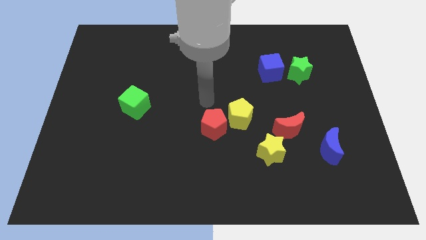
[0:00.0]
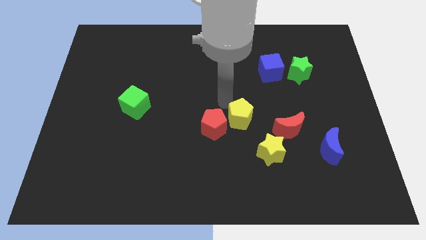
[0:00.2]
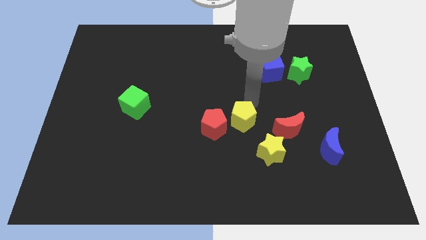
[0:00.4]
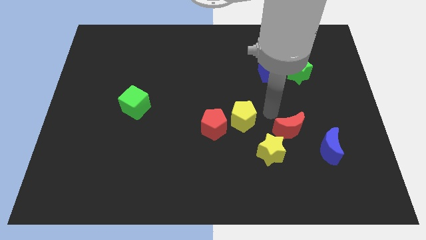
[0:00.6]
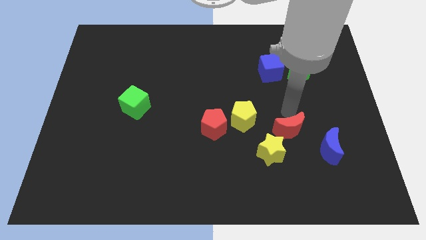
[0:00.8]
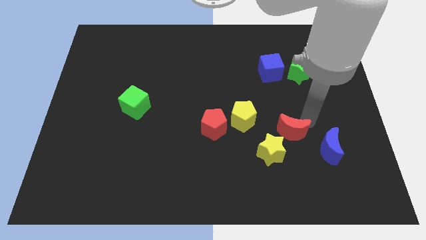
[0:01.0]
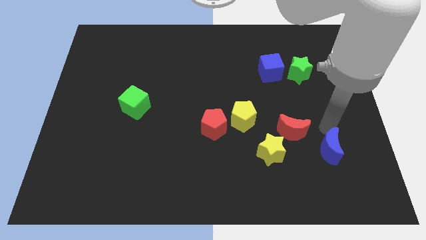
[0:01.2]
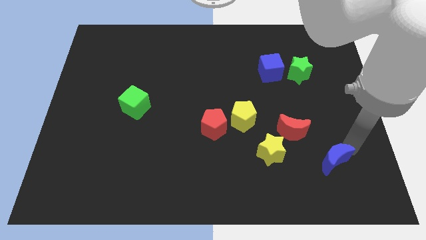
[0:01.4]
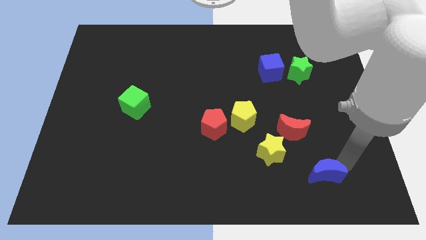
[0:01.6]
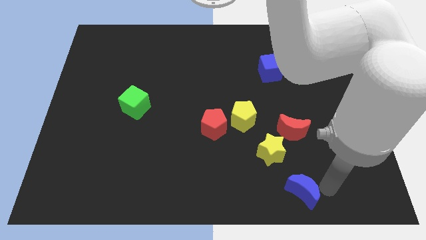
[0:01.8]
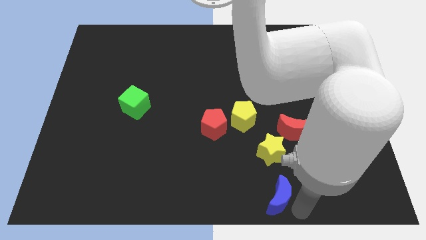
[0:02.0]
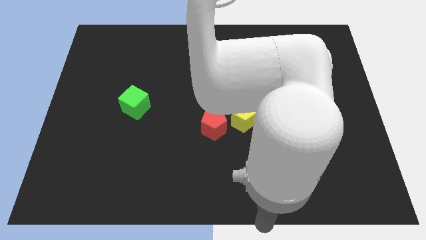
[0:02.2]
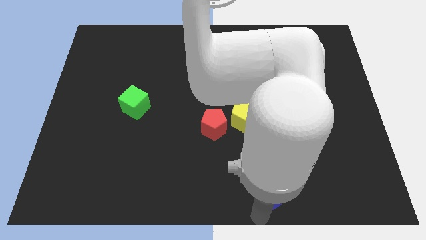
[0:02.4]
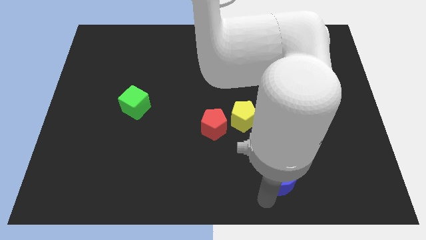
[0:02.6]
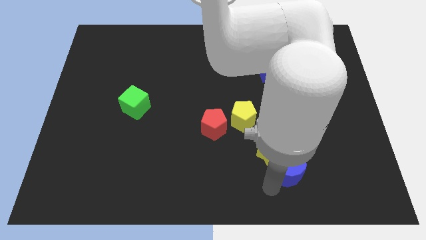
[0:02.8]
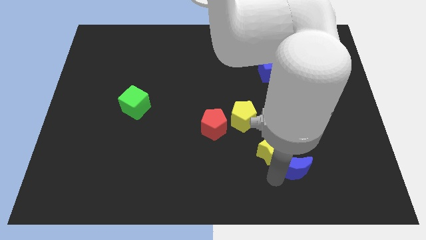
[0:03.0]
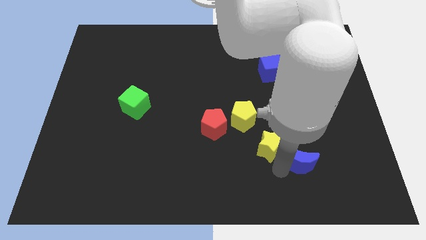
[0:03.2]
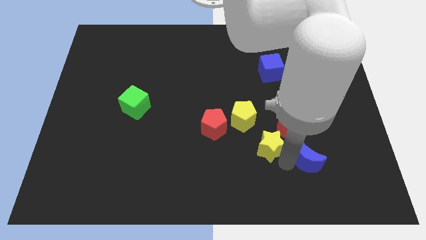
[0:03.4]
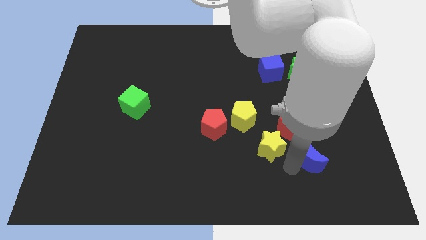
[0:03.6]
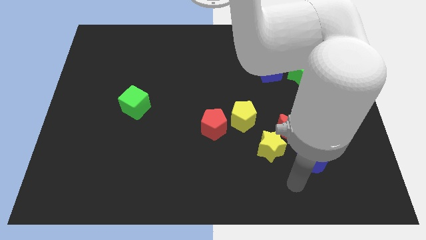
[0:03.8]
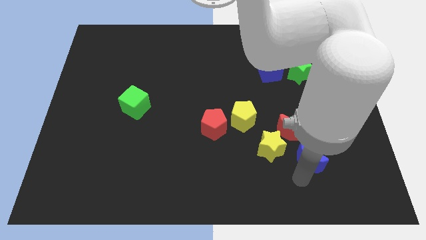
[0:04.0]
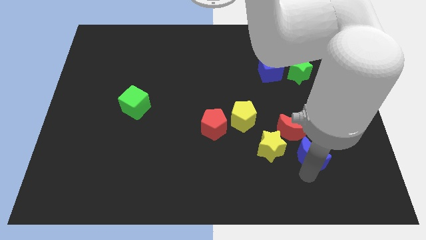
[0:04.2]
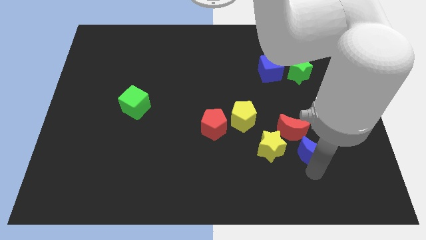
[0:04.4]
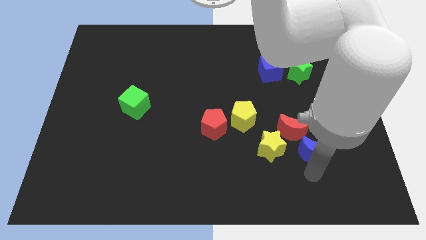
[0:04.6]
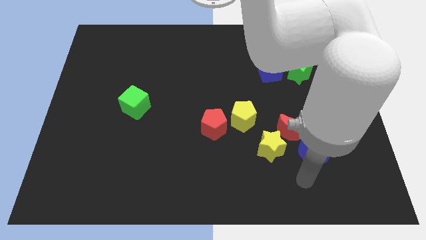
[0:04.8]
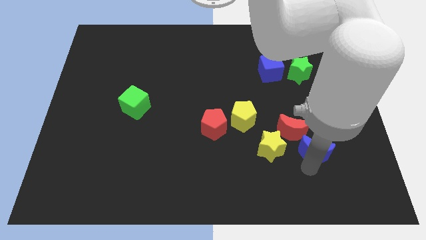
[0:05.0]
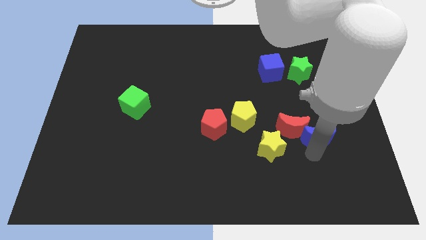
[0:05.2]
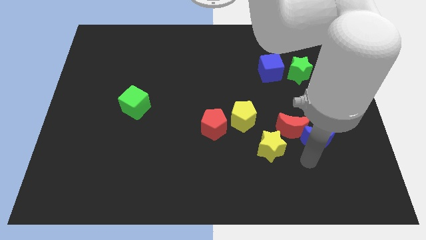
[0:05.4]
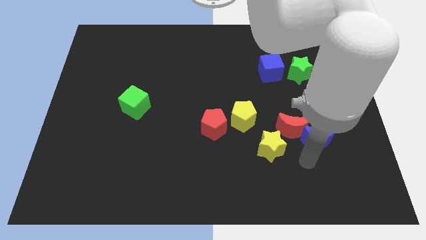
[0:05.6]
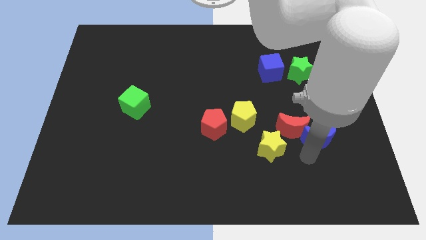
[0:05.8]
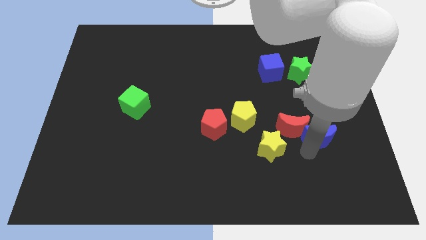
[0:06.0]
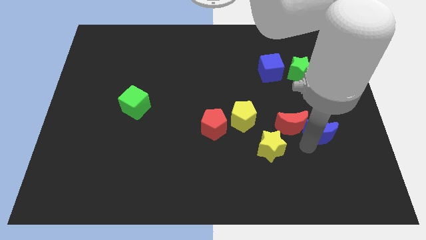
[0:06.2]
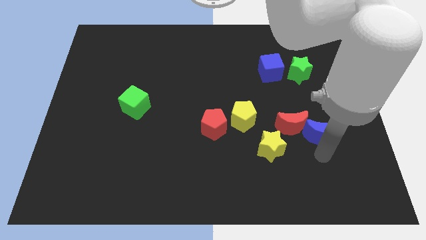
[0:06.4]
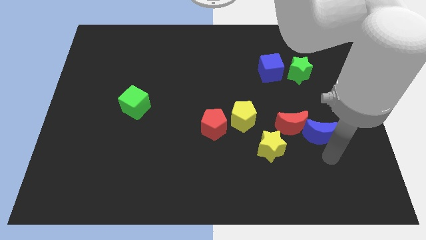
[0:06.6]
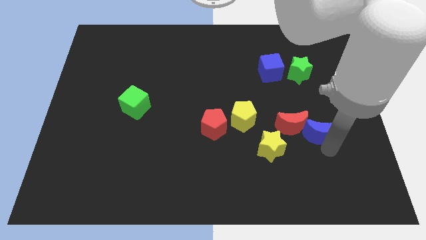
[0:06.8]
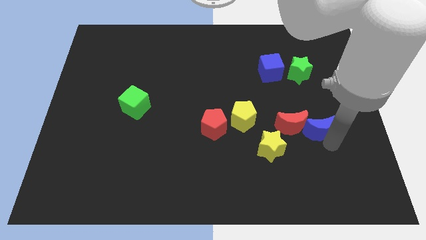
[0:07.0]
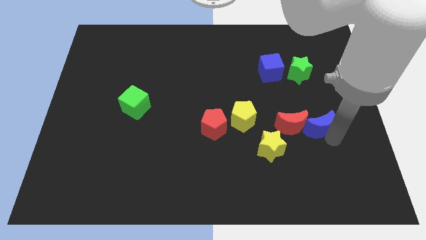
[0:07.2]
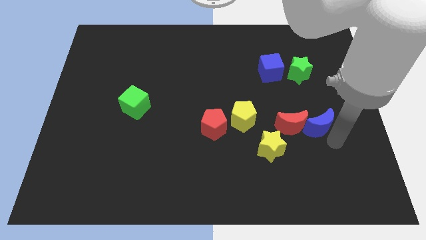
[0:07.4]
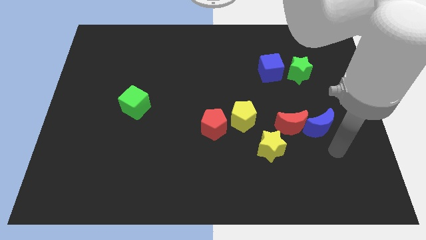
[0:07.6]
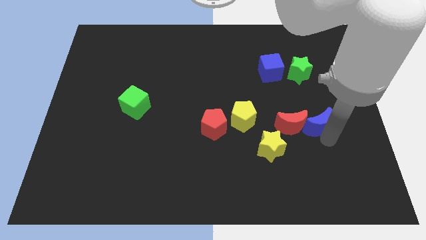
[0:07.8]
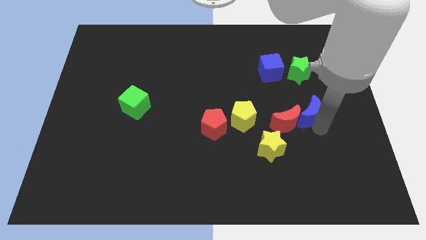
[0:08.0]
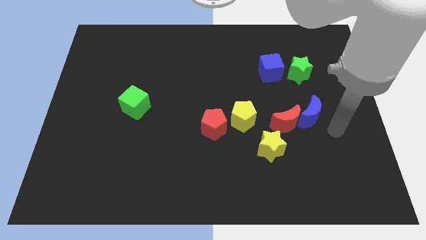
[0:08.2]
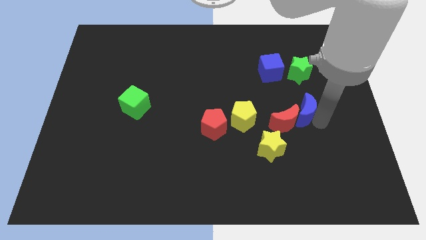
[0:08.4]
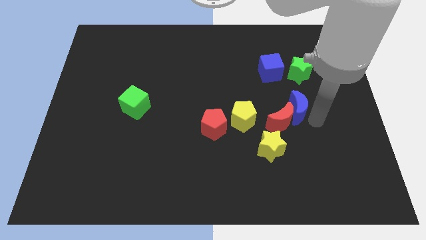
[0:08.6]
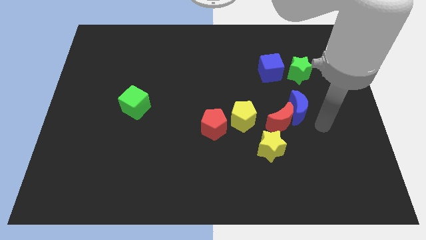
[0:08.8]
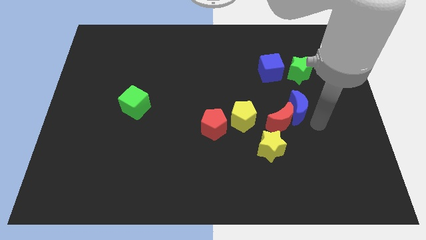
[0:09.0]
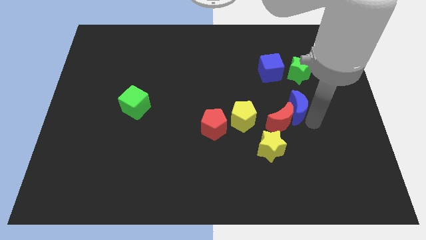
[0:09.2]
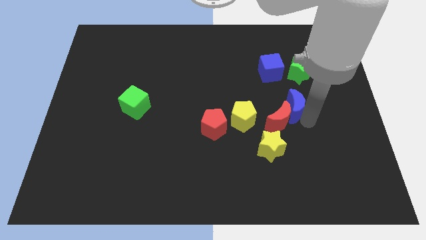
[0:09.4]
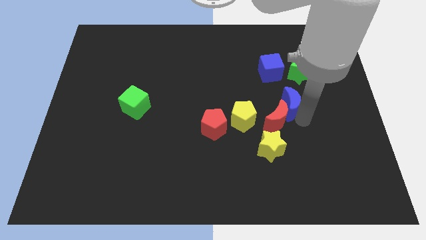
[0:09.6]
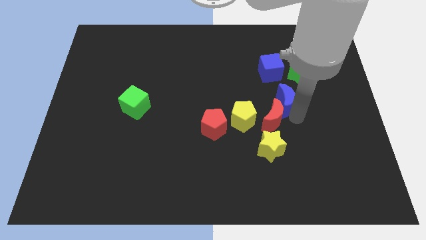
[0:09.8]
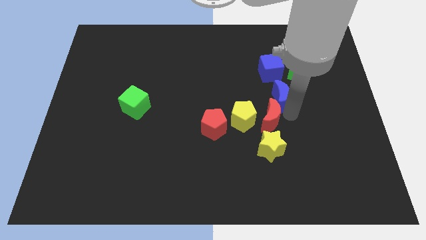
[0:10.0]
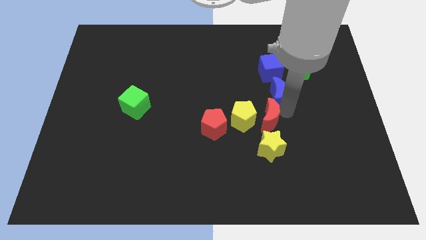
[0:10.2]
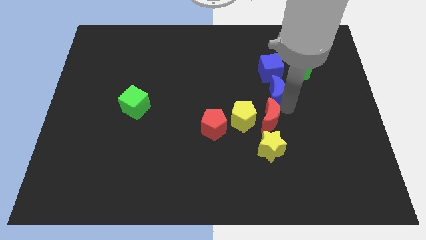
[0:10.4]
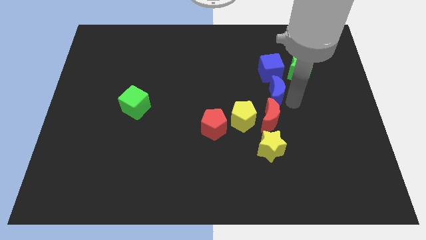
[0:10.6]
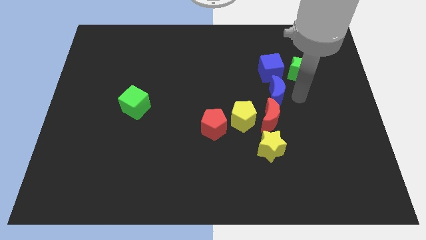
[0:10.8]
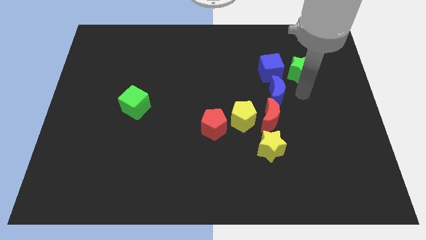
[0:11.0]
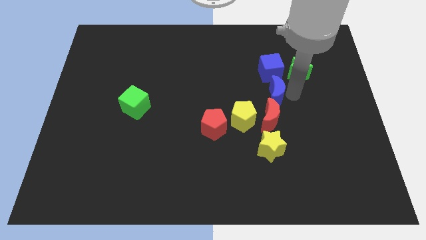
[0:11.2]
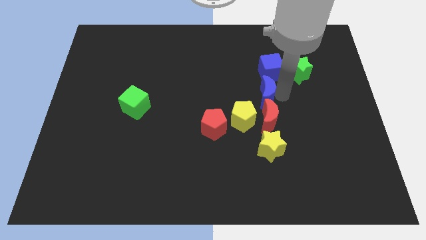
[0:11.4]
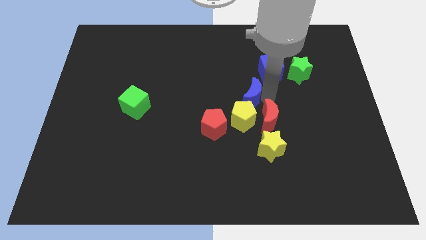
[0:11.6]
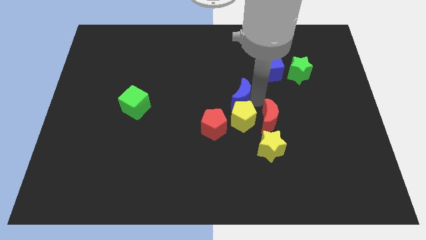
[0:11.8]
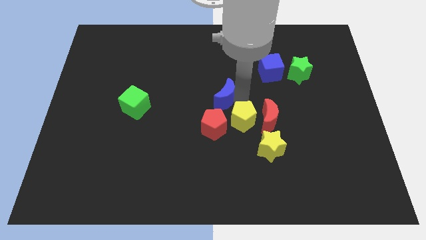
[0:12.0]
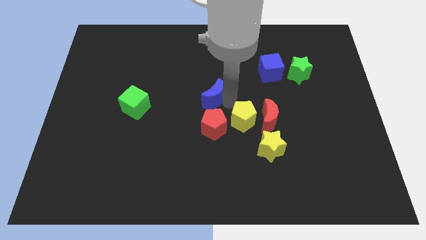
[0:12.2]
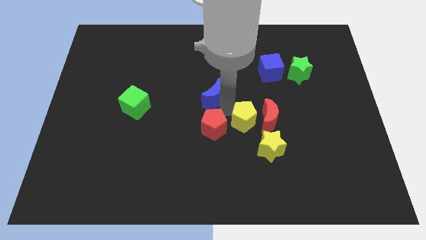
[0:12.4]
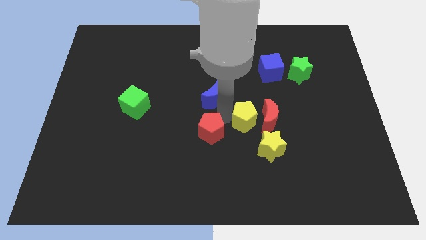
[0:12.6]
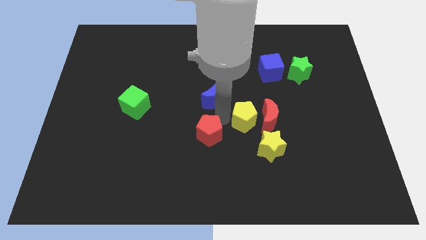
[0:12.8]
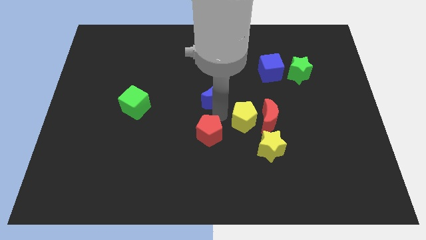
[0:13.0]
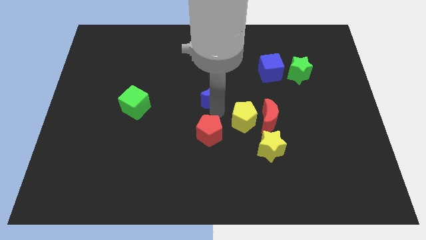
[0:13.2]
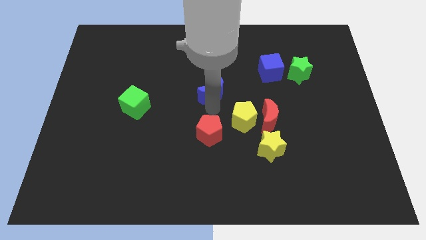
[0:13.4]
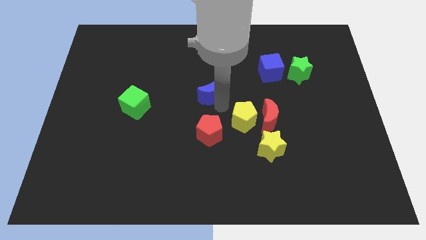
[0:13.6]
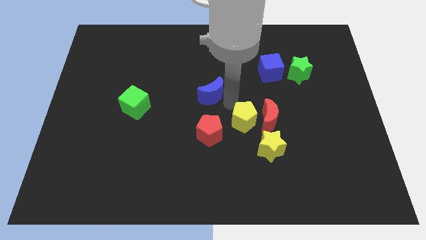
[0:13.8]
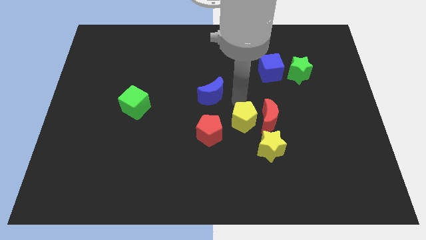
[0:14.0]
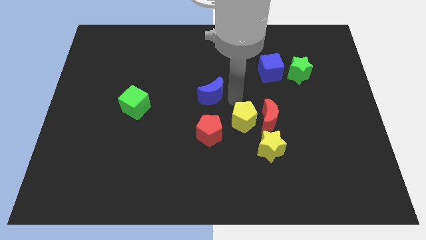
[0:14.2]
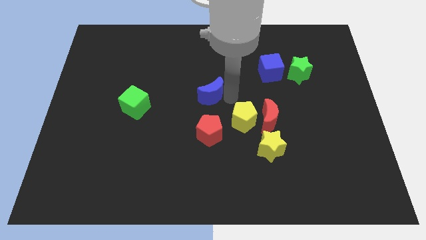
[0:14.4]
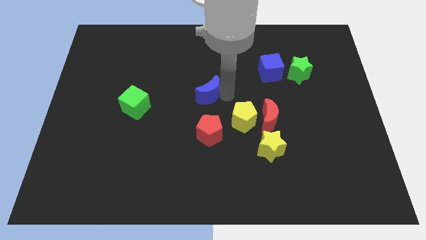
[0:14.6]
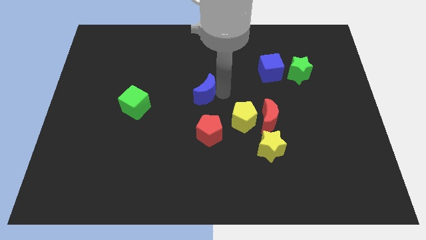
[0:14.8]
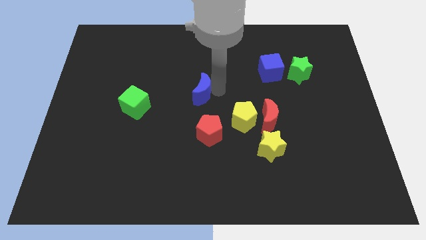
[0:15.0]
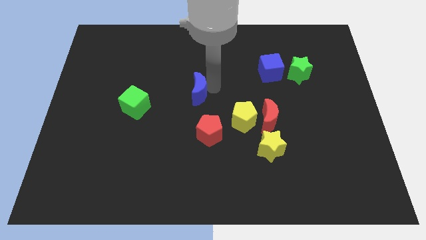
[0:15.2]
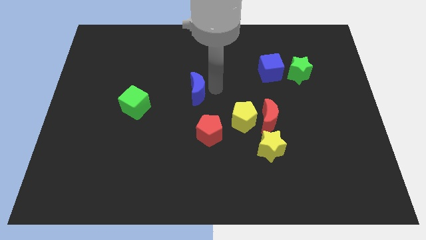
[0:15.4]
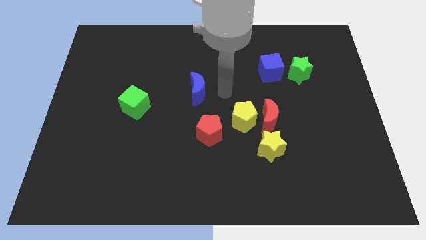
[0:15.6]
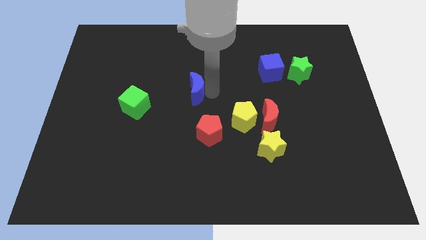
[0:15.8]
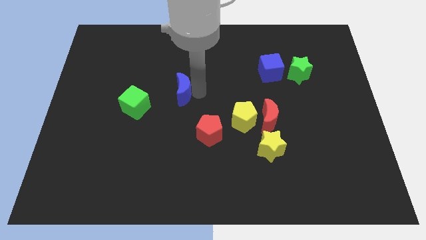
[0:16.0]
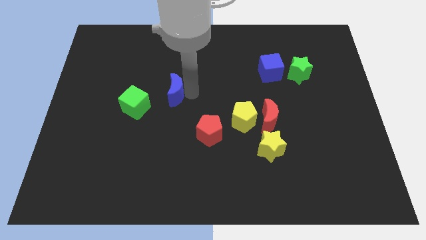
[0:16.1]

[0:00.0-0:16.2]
put the blue moon to the top right of the green cube
